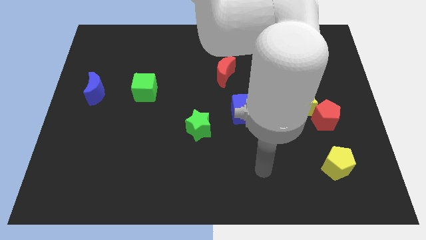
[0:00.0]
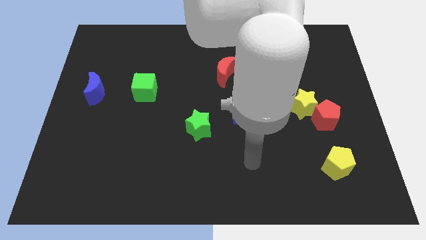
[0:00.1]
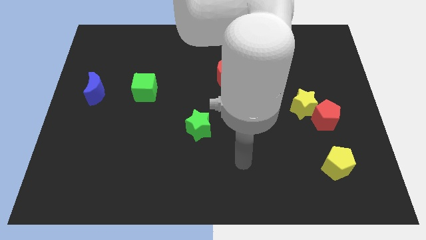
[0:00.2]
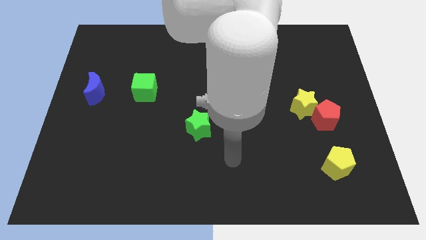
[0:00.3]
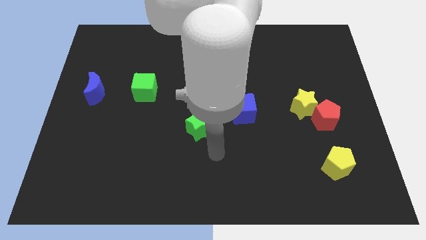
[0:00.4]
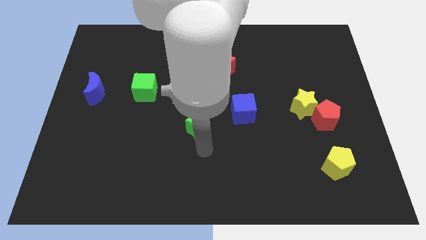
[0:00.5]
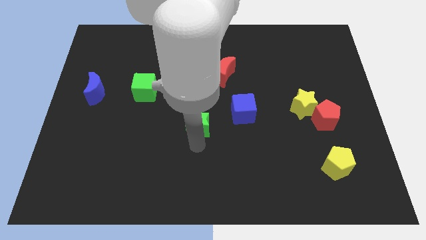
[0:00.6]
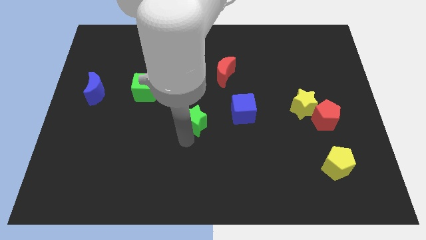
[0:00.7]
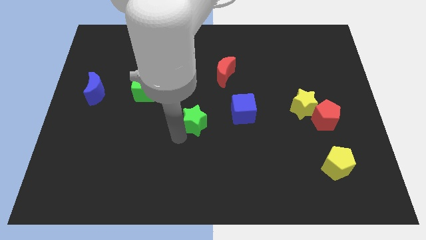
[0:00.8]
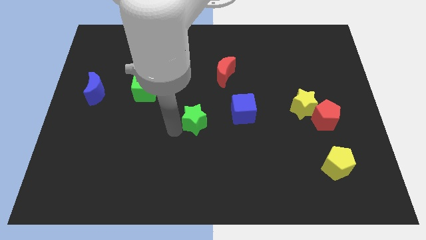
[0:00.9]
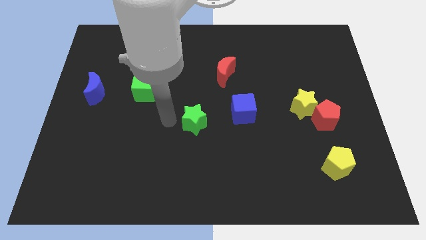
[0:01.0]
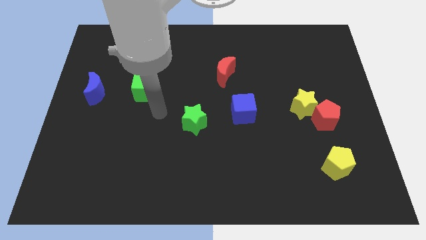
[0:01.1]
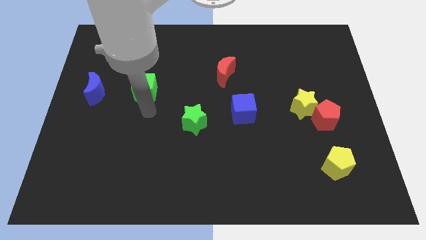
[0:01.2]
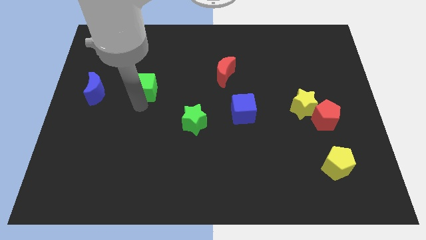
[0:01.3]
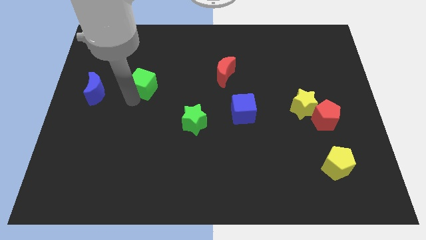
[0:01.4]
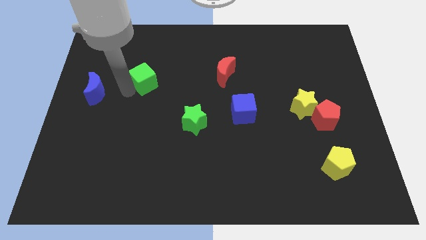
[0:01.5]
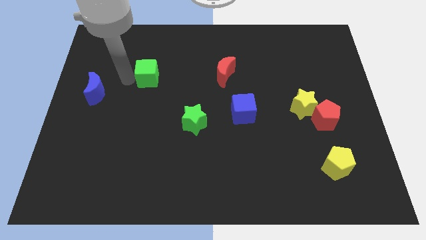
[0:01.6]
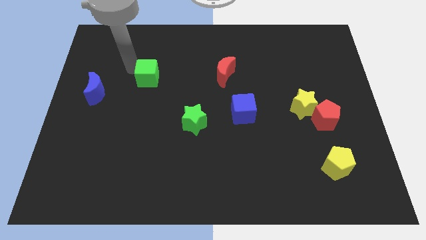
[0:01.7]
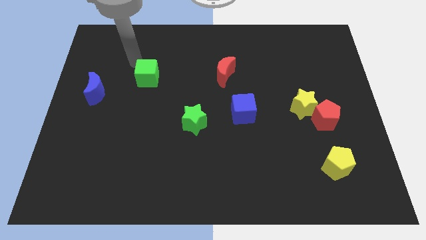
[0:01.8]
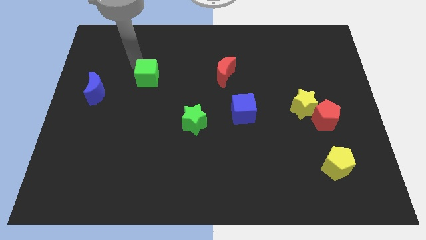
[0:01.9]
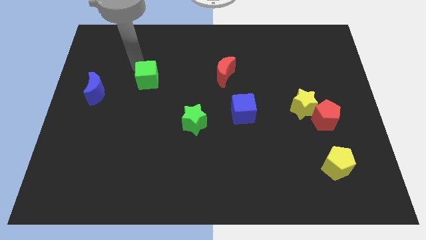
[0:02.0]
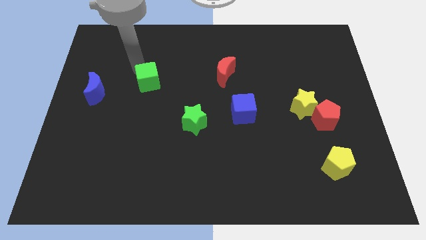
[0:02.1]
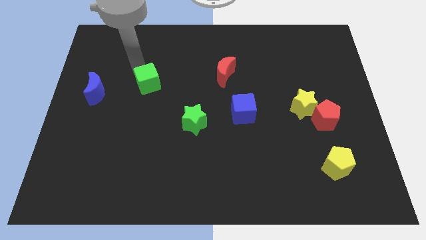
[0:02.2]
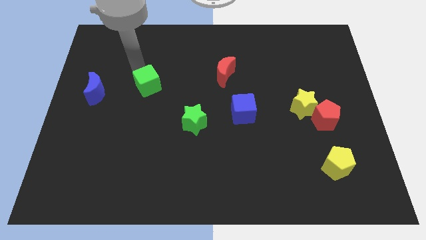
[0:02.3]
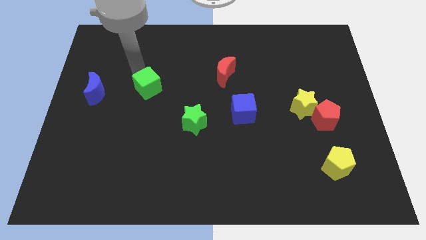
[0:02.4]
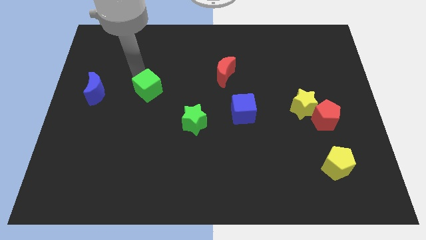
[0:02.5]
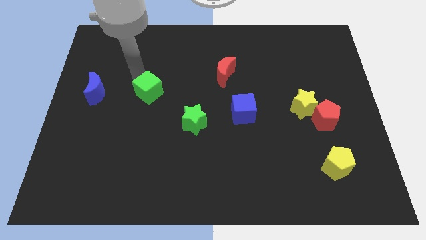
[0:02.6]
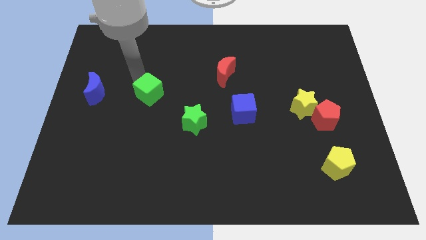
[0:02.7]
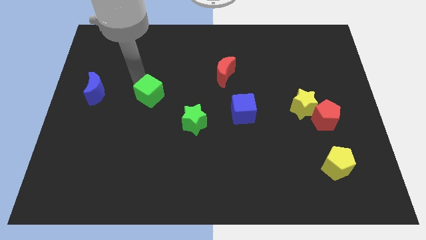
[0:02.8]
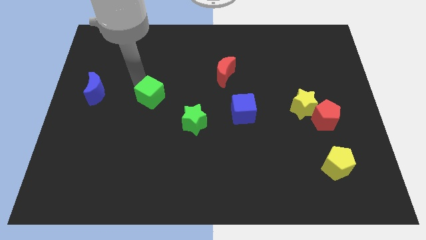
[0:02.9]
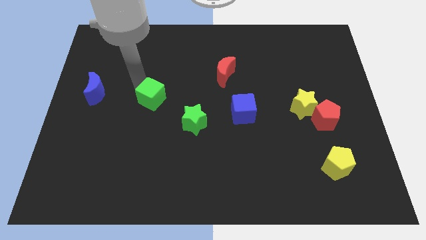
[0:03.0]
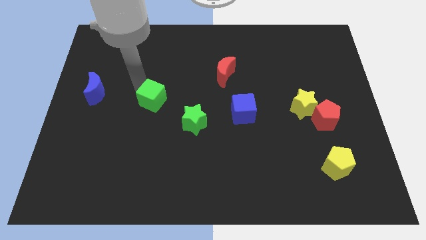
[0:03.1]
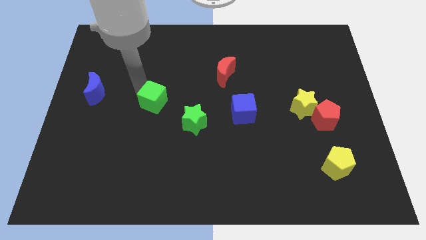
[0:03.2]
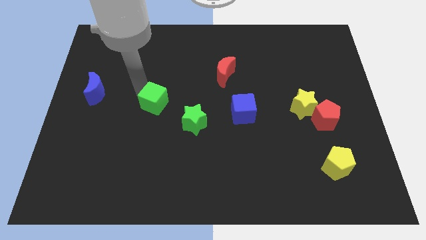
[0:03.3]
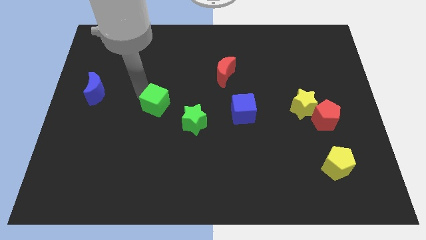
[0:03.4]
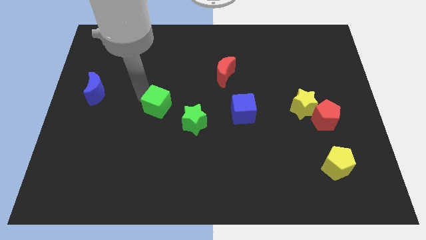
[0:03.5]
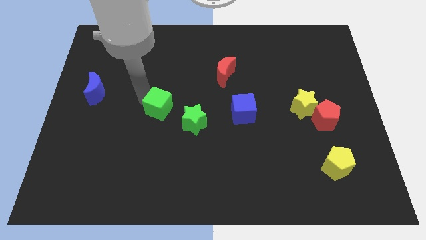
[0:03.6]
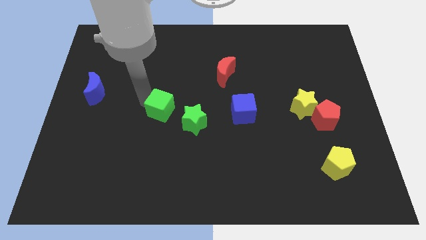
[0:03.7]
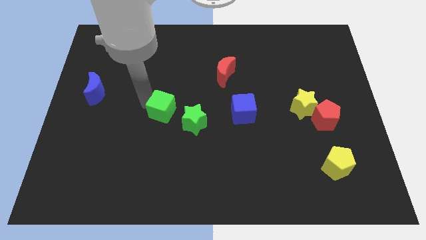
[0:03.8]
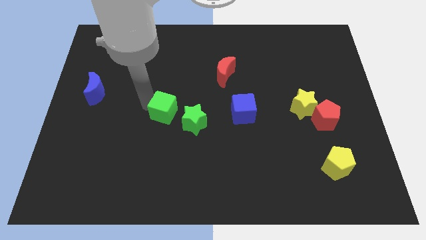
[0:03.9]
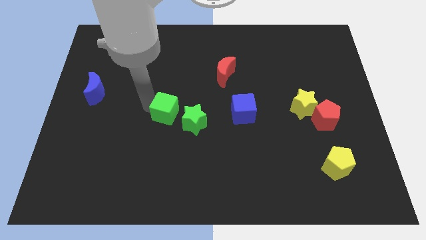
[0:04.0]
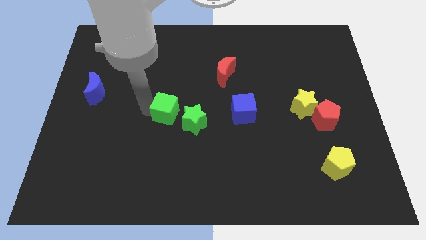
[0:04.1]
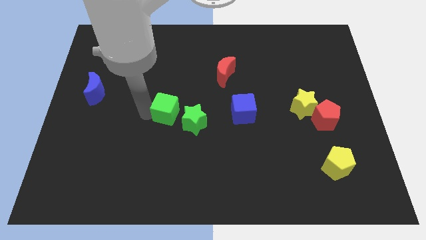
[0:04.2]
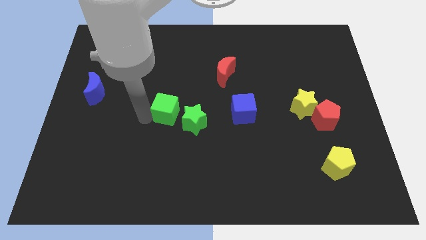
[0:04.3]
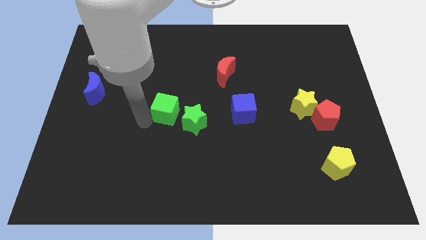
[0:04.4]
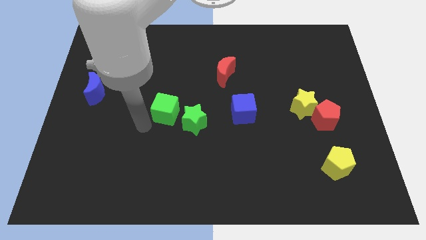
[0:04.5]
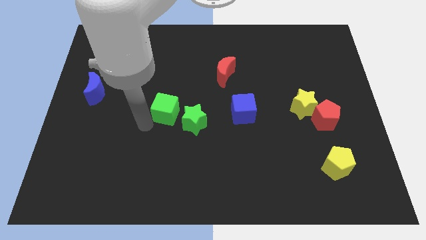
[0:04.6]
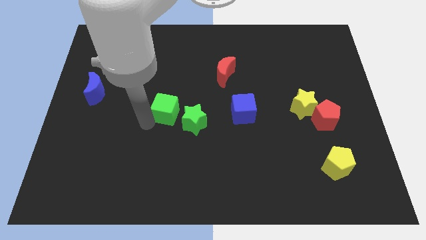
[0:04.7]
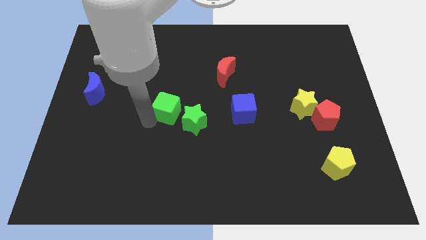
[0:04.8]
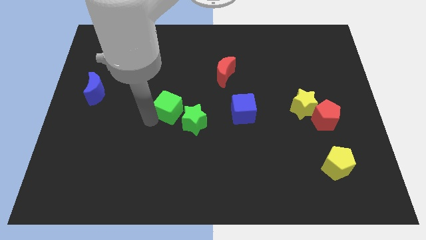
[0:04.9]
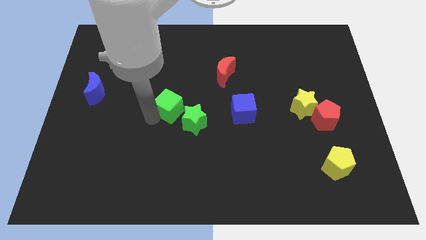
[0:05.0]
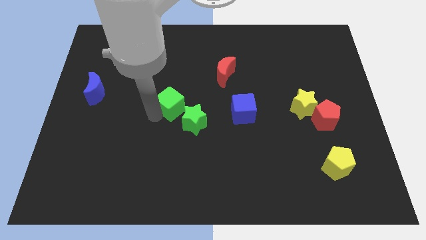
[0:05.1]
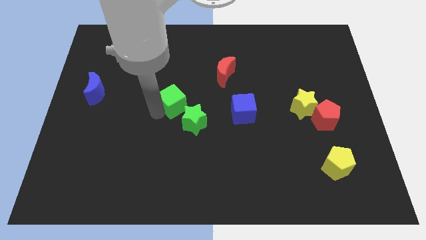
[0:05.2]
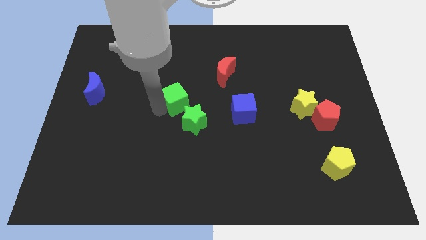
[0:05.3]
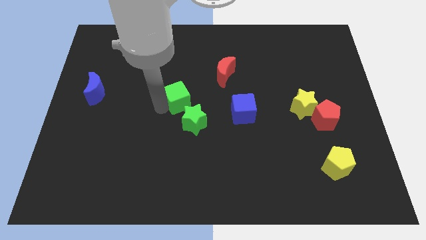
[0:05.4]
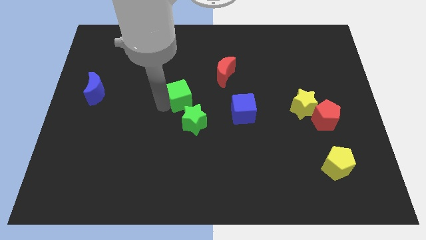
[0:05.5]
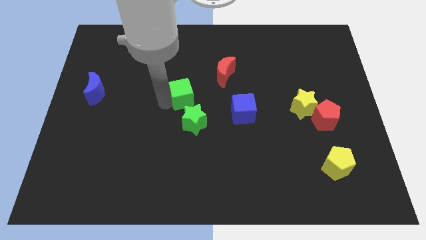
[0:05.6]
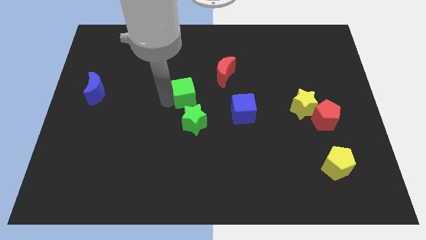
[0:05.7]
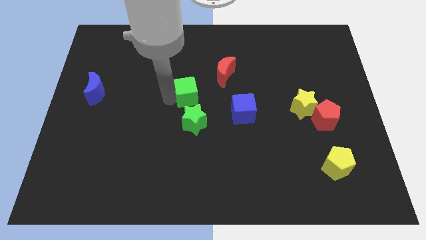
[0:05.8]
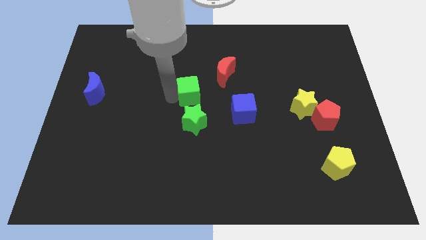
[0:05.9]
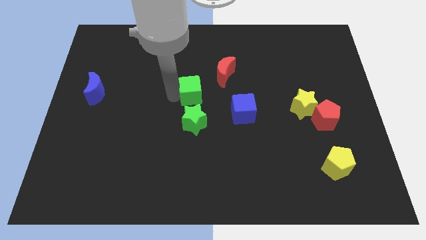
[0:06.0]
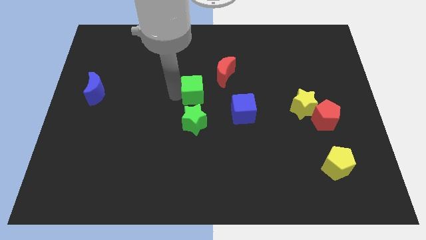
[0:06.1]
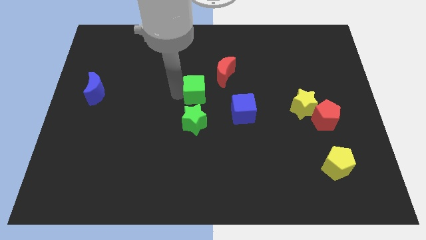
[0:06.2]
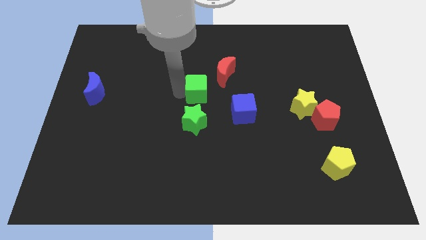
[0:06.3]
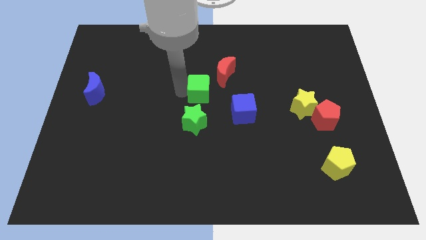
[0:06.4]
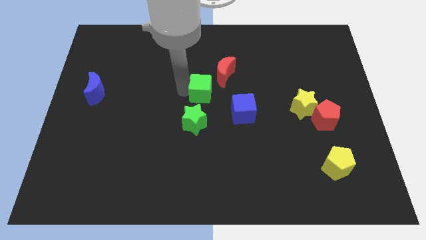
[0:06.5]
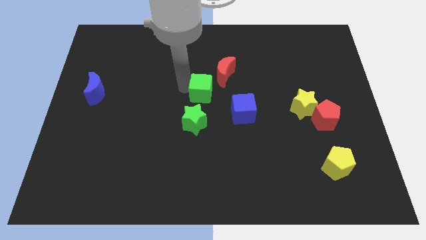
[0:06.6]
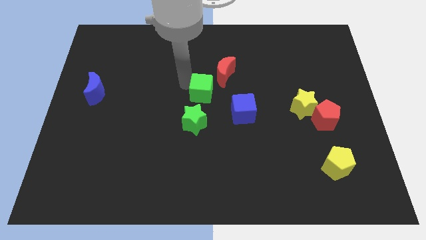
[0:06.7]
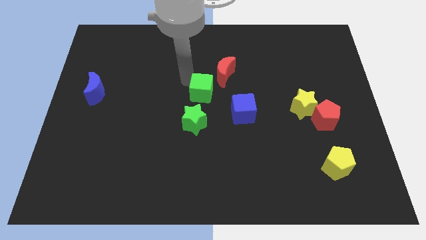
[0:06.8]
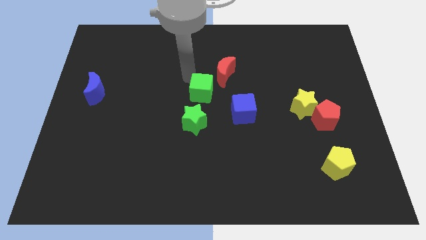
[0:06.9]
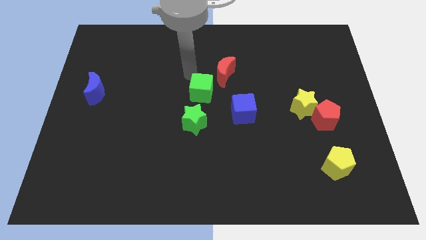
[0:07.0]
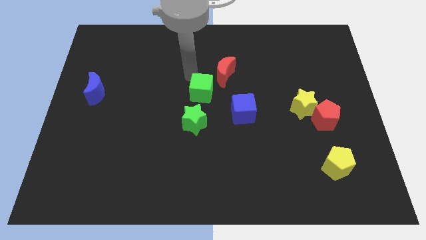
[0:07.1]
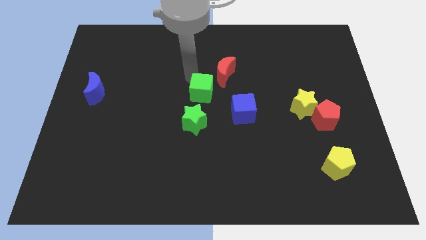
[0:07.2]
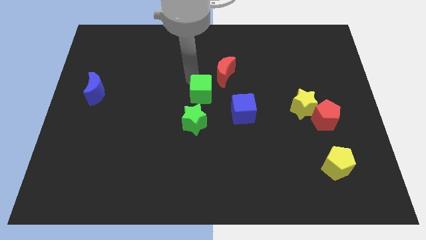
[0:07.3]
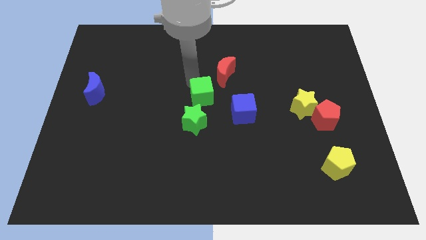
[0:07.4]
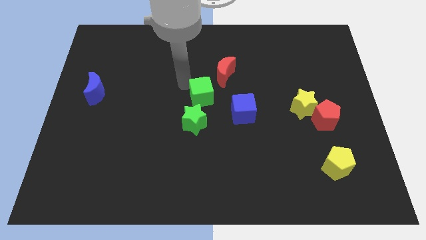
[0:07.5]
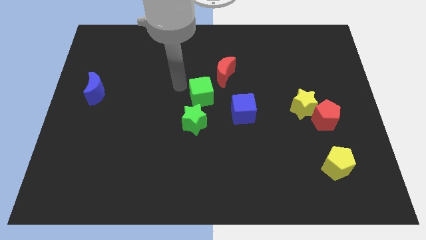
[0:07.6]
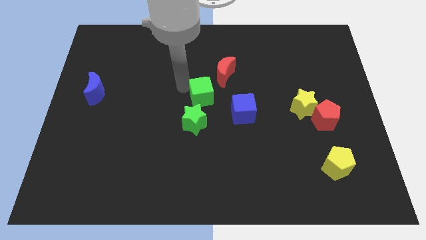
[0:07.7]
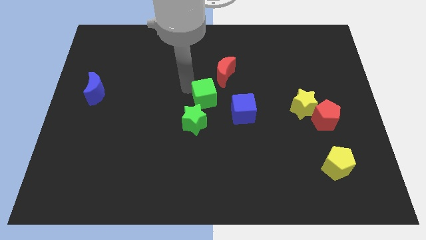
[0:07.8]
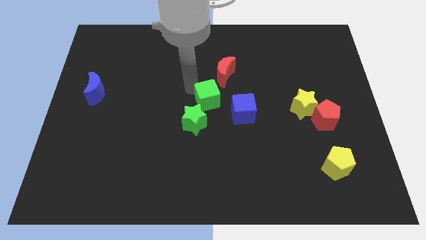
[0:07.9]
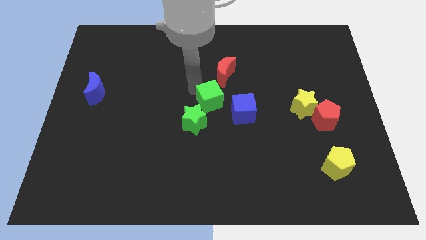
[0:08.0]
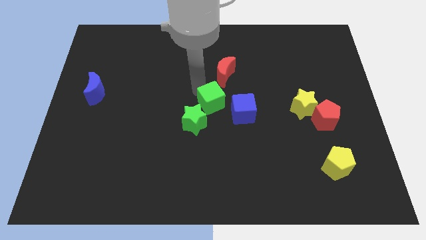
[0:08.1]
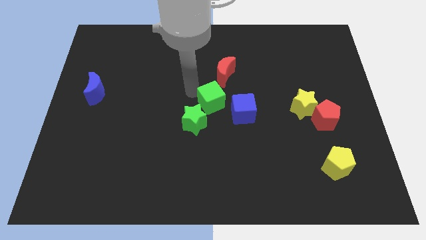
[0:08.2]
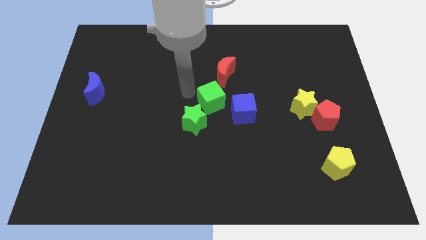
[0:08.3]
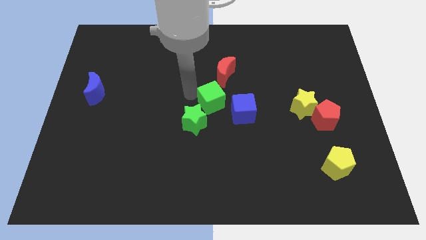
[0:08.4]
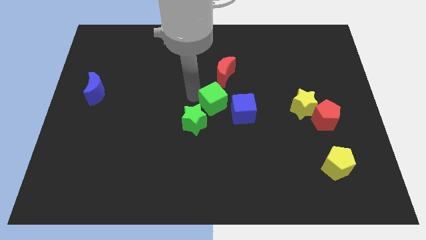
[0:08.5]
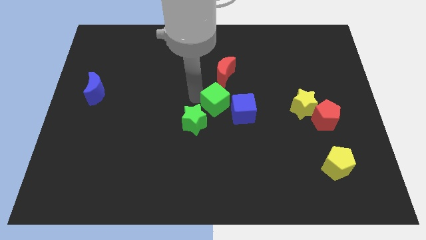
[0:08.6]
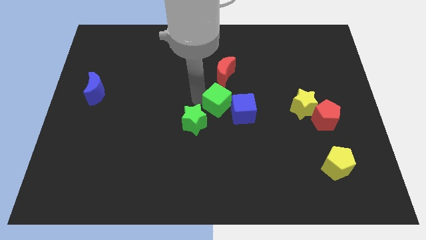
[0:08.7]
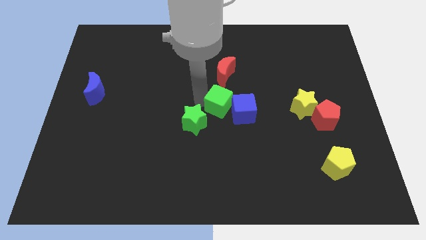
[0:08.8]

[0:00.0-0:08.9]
slide the green cube towards the blue cube
